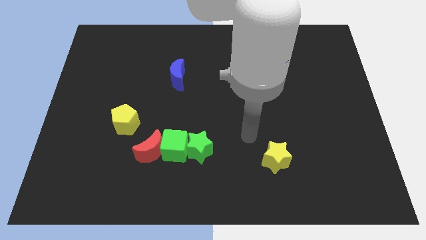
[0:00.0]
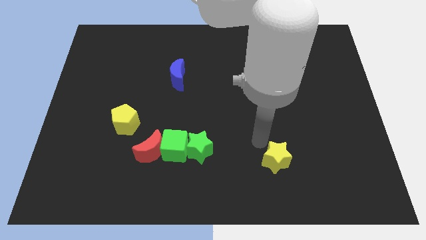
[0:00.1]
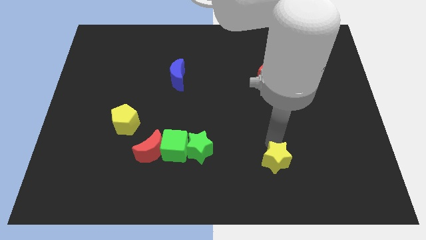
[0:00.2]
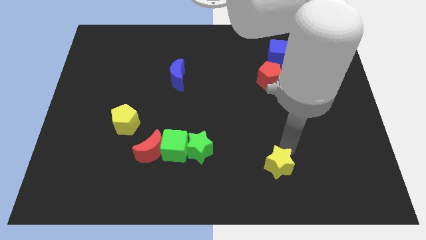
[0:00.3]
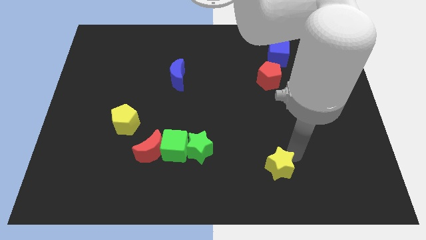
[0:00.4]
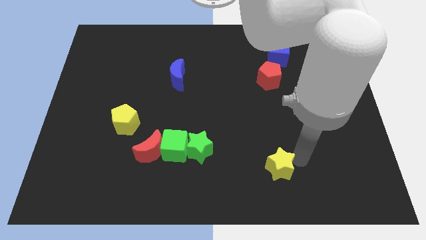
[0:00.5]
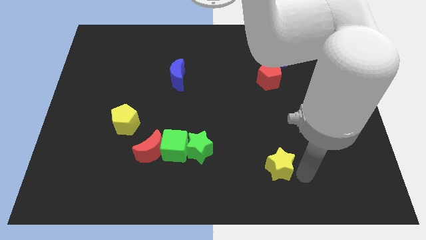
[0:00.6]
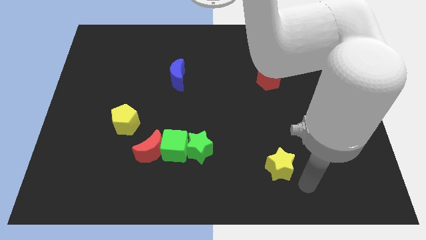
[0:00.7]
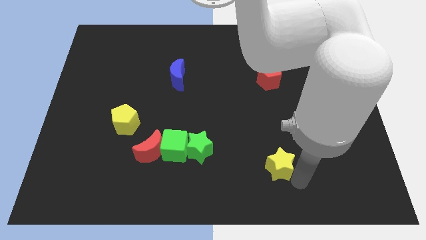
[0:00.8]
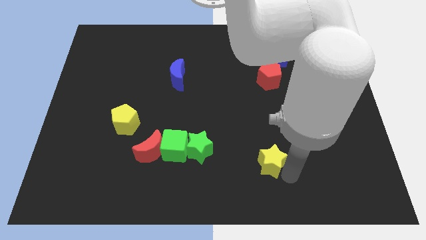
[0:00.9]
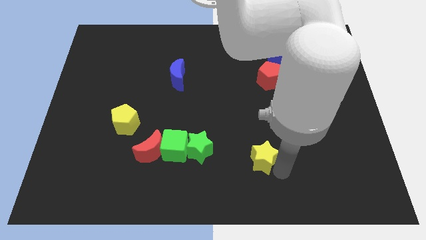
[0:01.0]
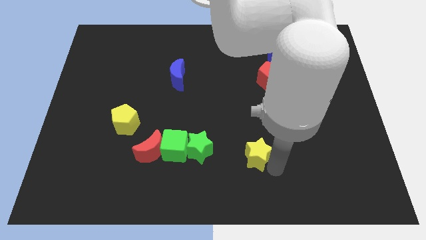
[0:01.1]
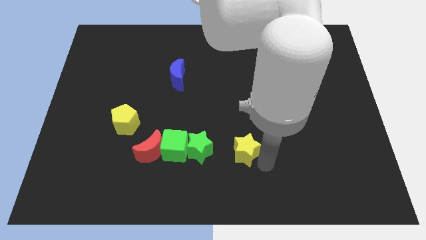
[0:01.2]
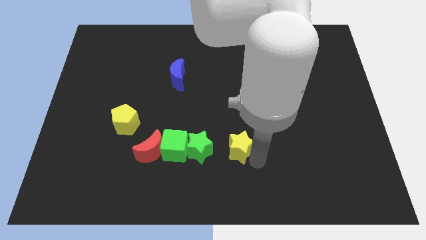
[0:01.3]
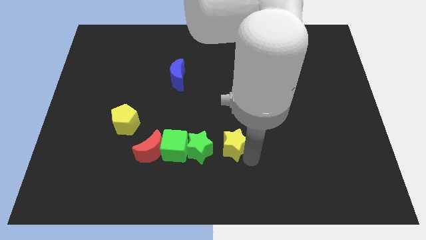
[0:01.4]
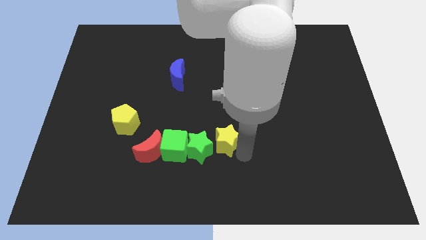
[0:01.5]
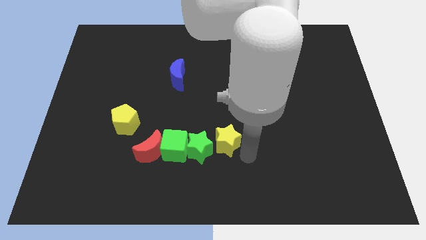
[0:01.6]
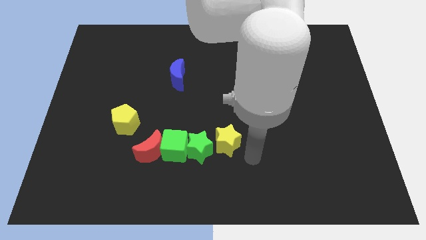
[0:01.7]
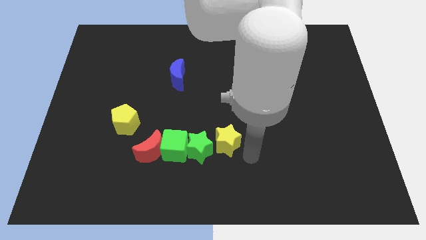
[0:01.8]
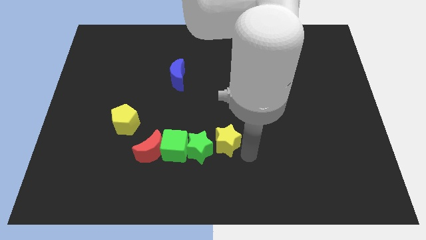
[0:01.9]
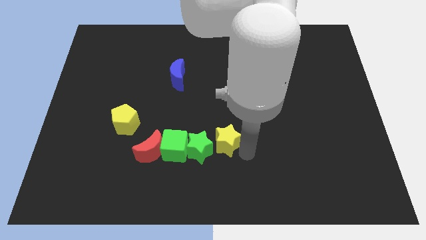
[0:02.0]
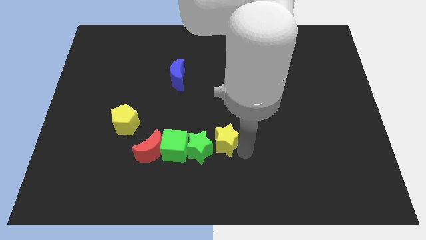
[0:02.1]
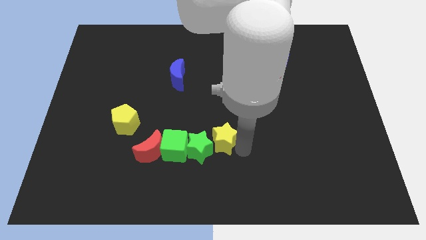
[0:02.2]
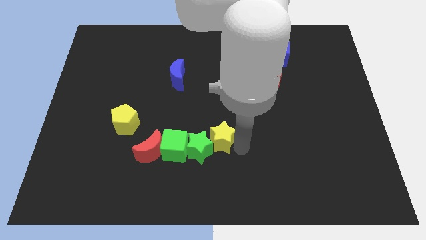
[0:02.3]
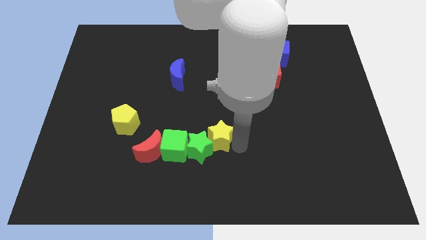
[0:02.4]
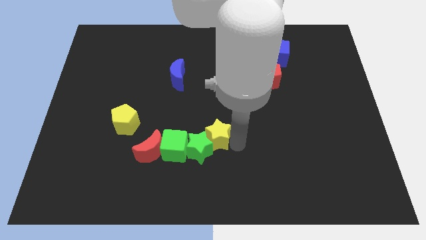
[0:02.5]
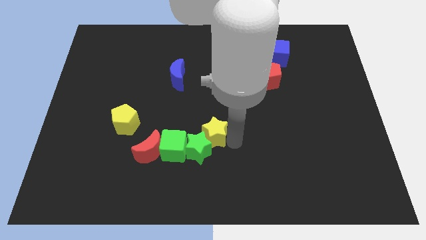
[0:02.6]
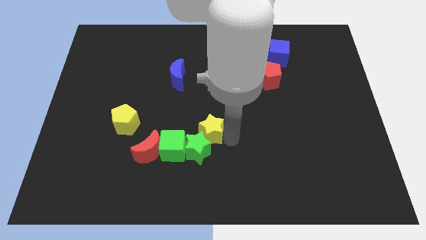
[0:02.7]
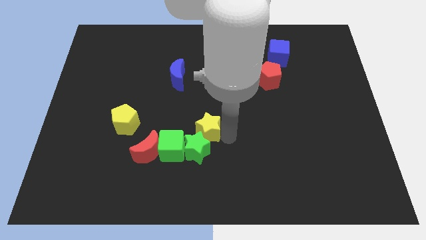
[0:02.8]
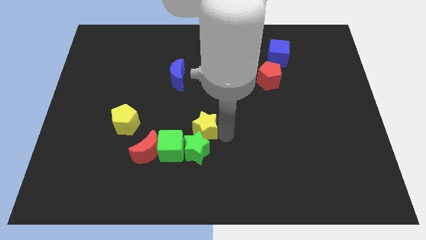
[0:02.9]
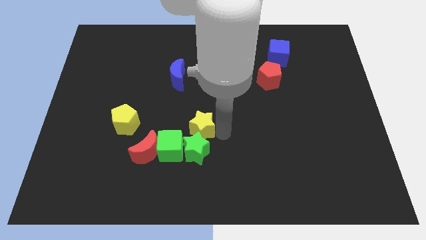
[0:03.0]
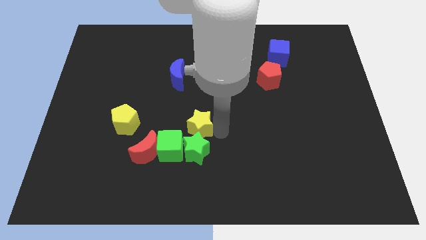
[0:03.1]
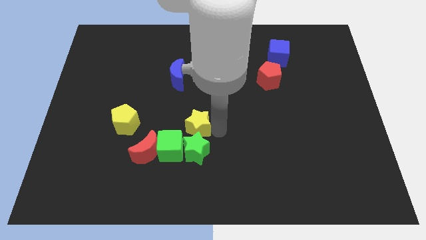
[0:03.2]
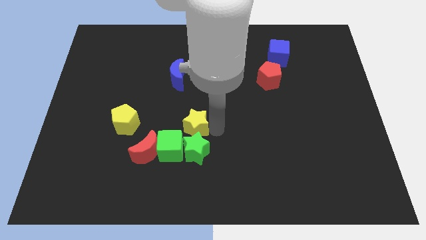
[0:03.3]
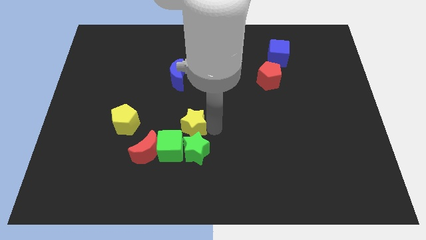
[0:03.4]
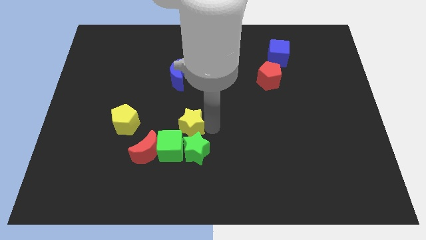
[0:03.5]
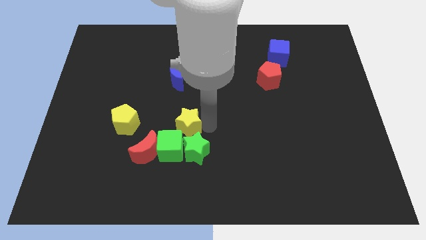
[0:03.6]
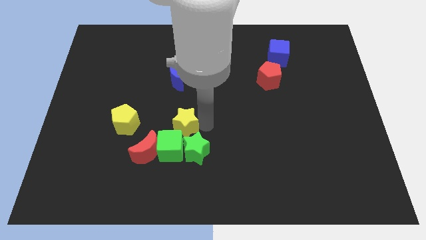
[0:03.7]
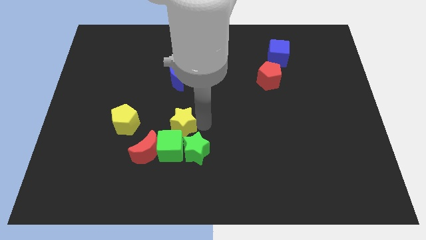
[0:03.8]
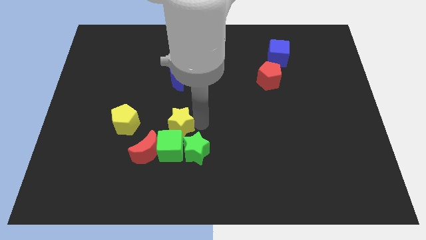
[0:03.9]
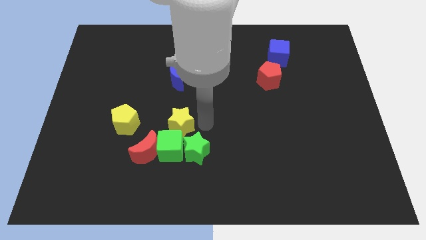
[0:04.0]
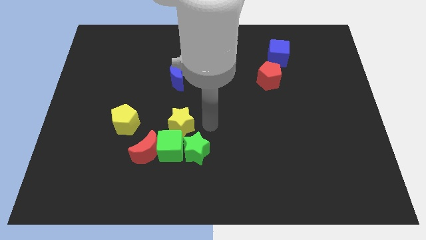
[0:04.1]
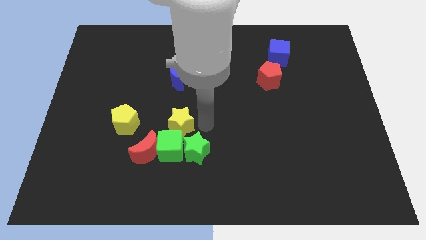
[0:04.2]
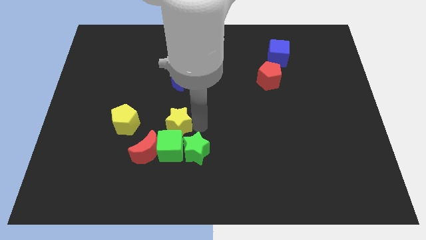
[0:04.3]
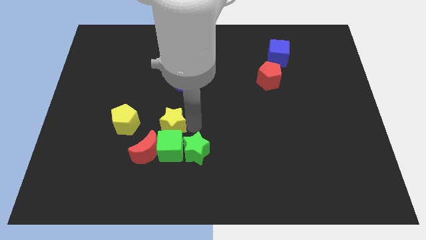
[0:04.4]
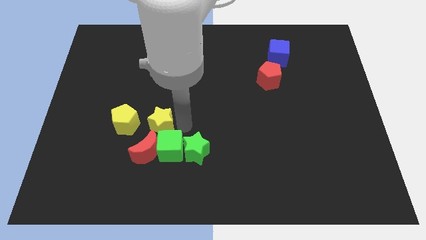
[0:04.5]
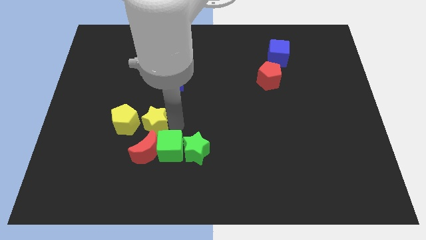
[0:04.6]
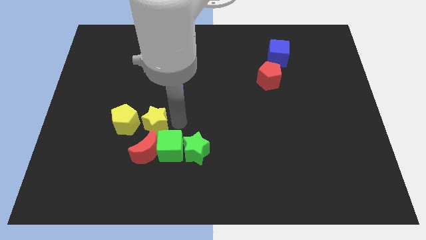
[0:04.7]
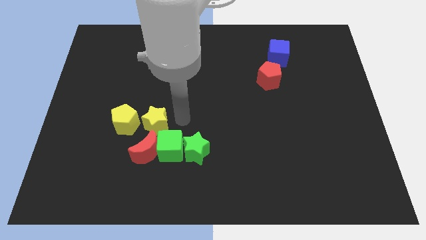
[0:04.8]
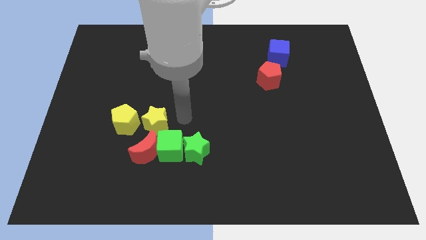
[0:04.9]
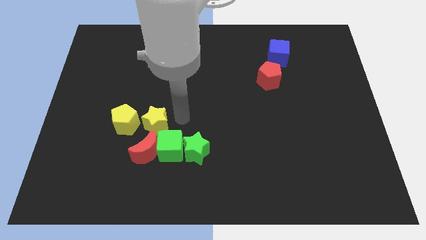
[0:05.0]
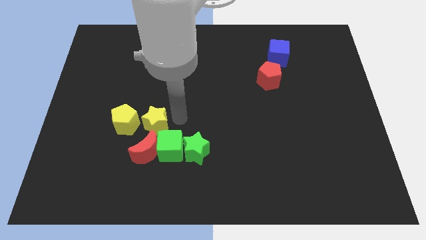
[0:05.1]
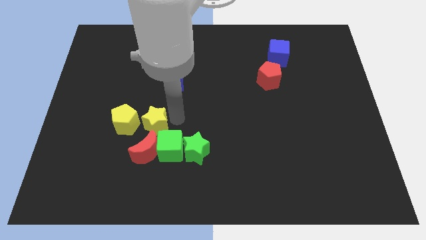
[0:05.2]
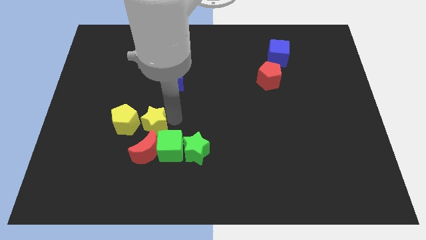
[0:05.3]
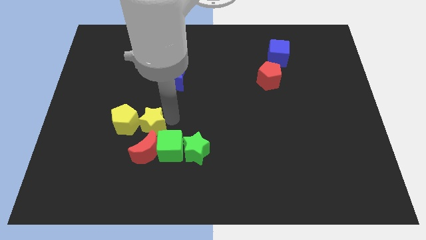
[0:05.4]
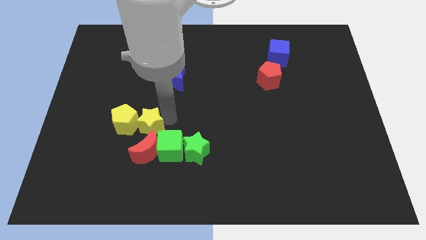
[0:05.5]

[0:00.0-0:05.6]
slide the yellow star next to the yellow pentagon

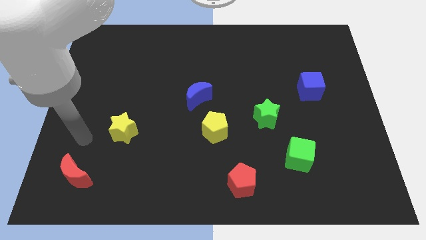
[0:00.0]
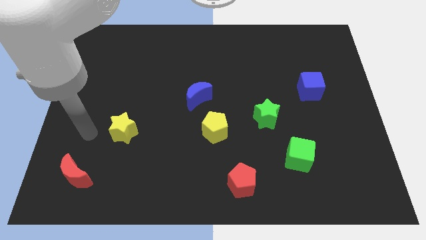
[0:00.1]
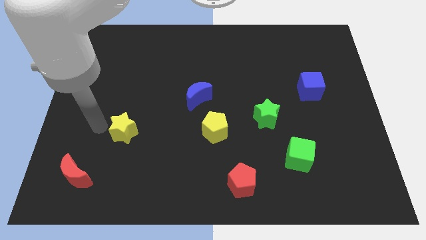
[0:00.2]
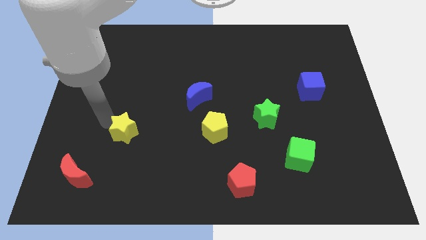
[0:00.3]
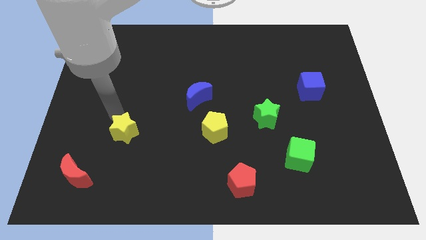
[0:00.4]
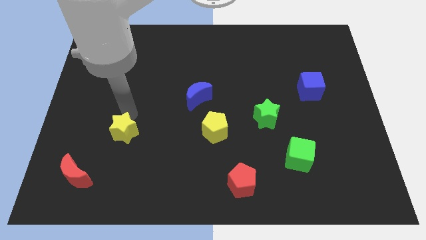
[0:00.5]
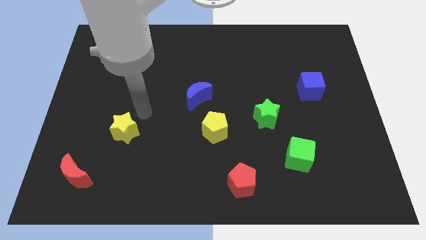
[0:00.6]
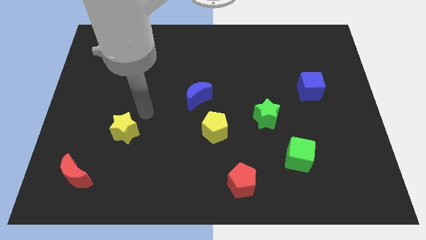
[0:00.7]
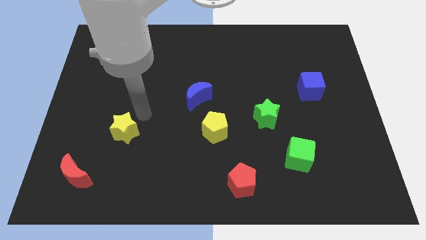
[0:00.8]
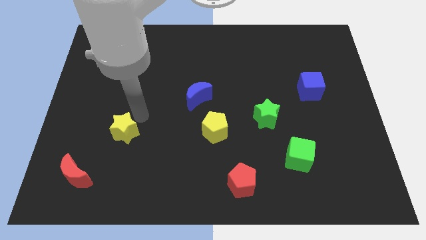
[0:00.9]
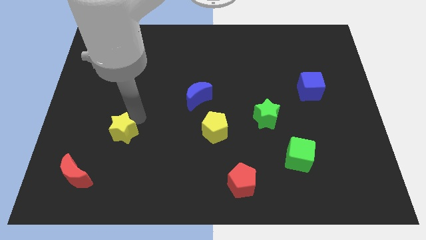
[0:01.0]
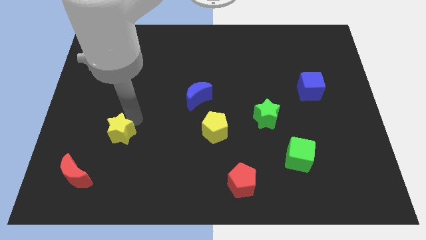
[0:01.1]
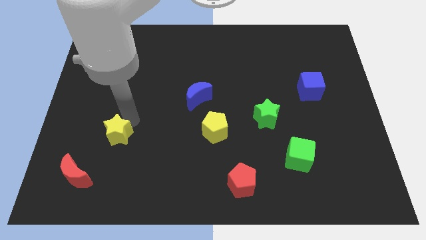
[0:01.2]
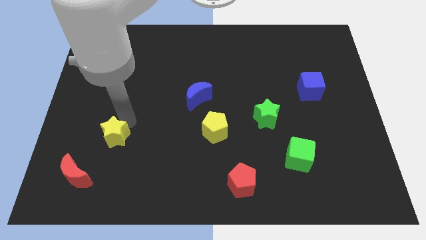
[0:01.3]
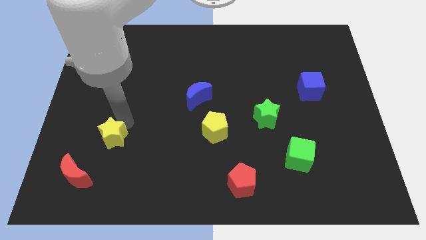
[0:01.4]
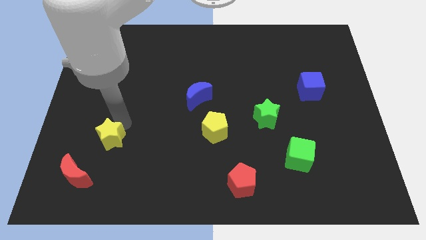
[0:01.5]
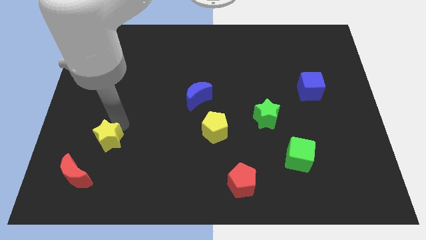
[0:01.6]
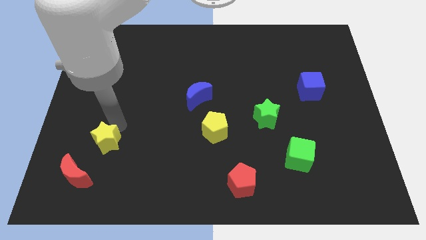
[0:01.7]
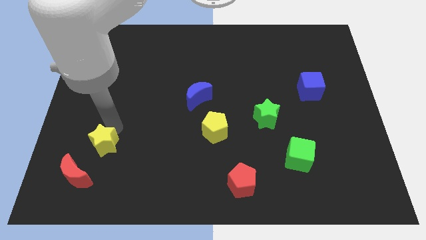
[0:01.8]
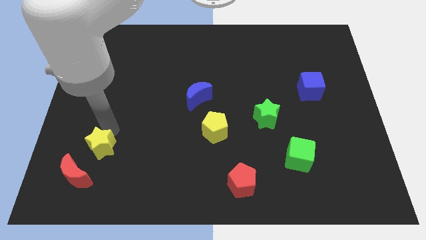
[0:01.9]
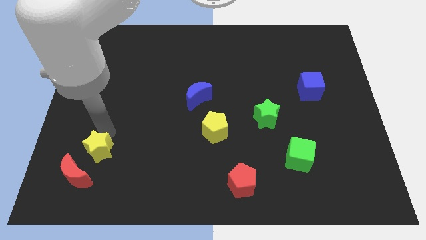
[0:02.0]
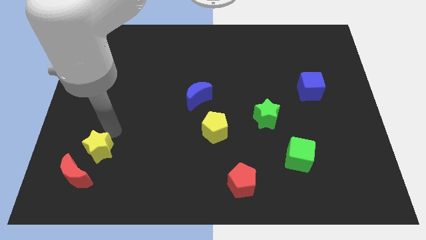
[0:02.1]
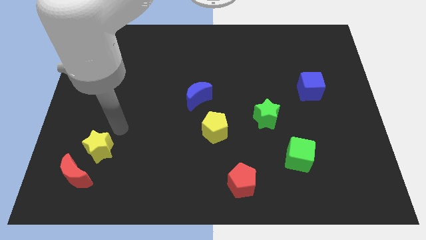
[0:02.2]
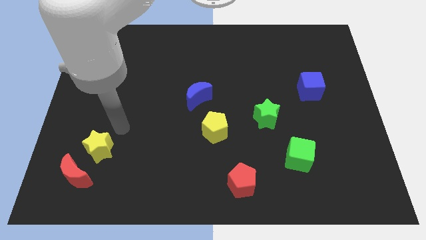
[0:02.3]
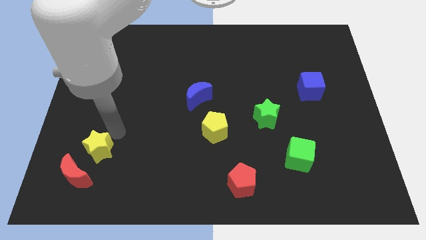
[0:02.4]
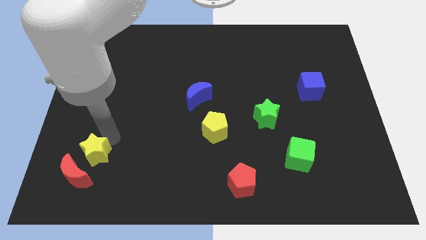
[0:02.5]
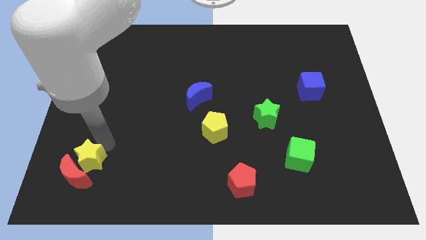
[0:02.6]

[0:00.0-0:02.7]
put the yellow star towards the red moon
